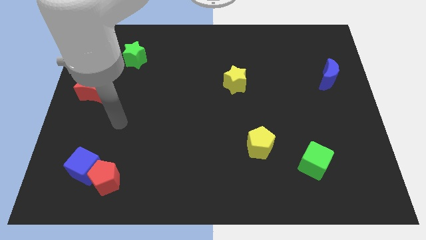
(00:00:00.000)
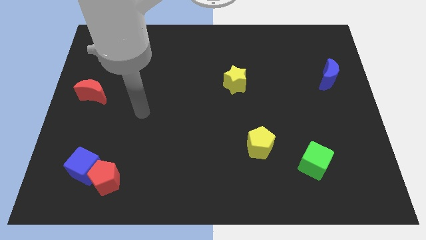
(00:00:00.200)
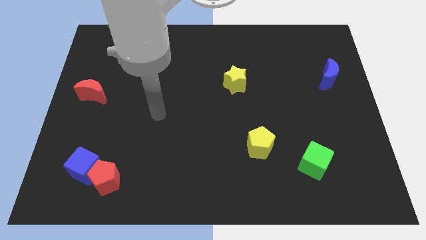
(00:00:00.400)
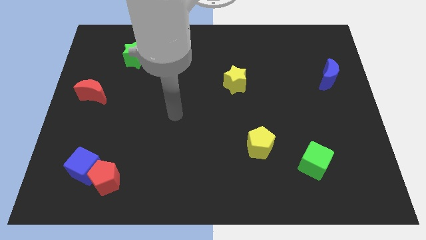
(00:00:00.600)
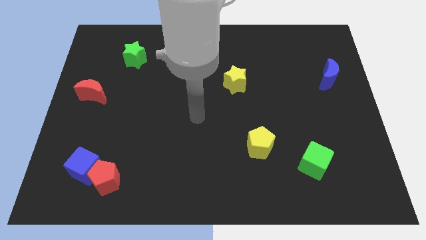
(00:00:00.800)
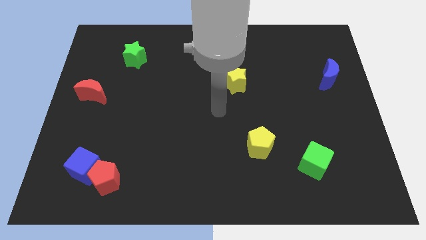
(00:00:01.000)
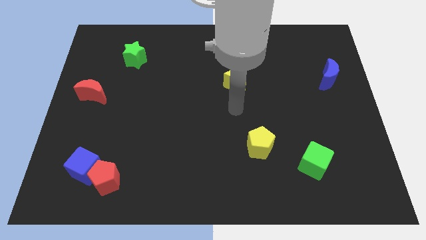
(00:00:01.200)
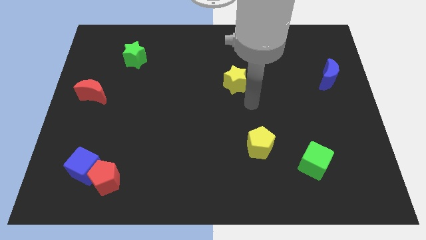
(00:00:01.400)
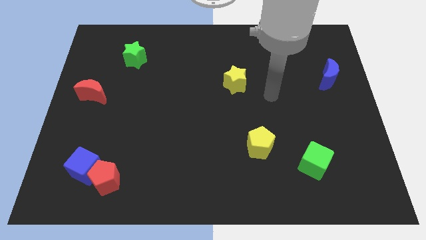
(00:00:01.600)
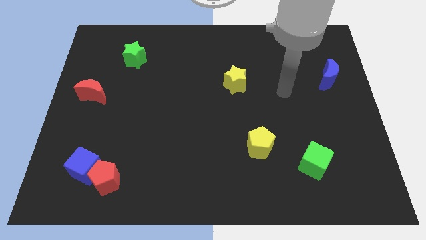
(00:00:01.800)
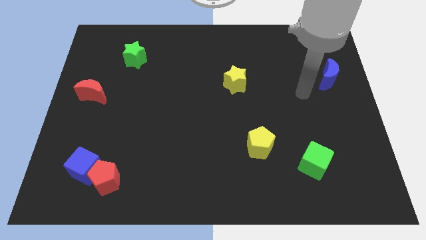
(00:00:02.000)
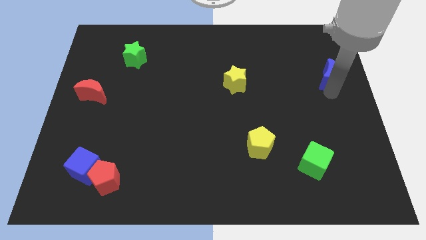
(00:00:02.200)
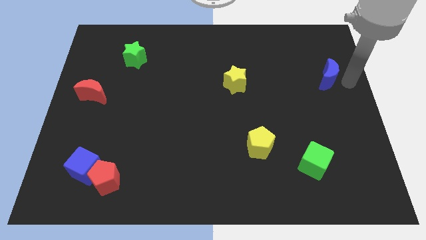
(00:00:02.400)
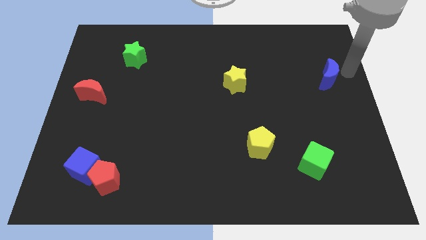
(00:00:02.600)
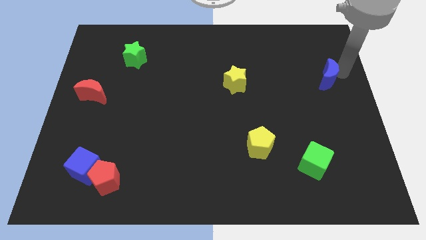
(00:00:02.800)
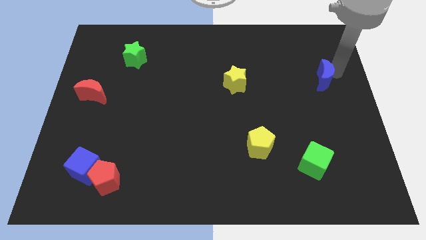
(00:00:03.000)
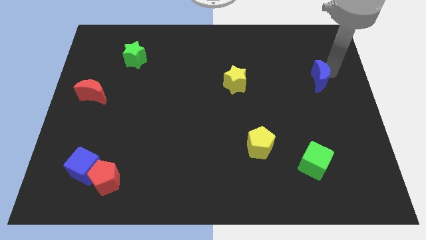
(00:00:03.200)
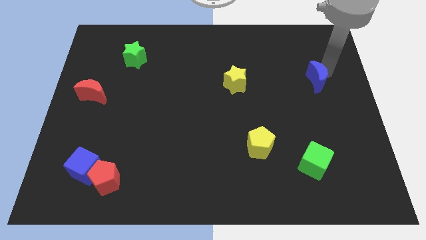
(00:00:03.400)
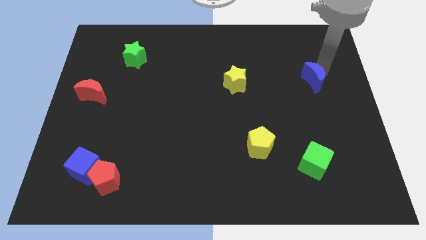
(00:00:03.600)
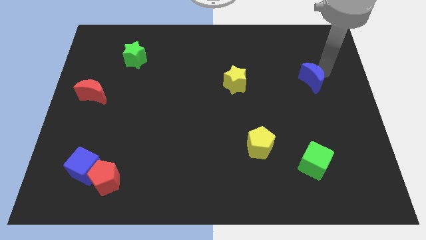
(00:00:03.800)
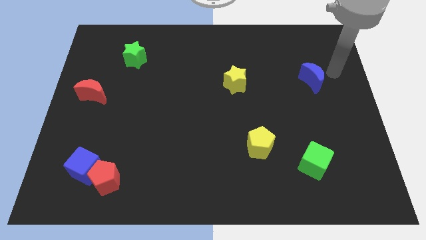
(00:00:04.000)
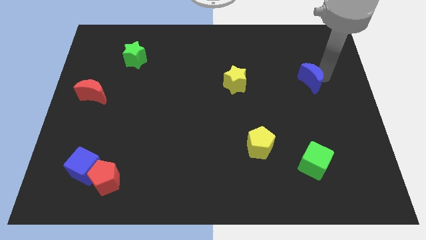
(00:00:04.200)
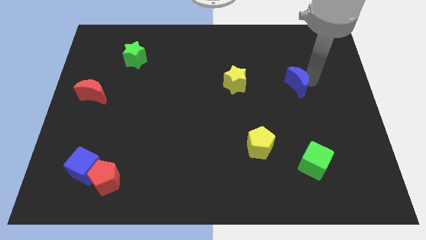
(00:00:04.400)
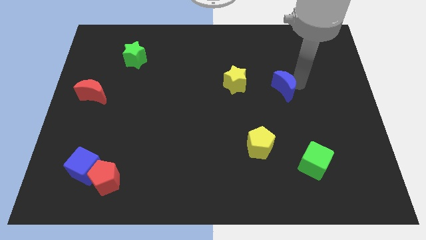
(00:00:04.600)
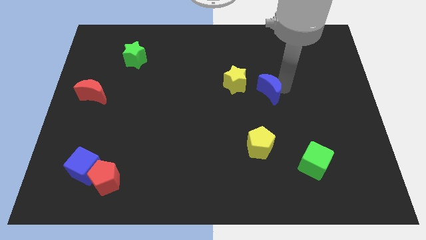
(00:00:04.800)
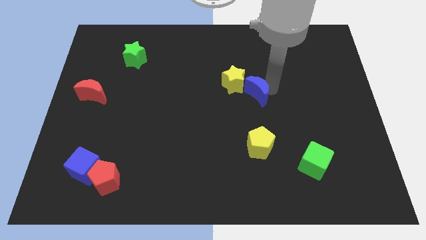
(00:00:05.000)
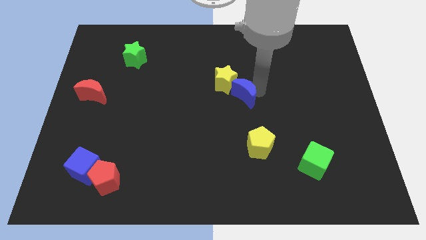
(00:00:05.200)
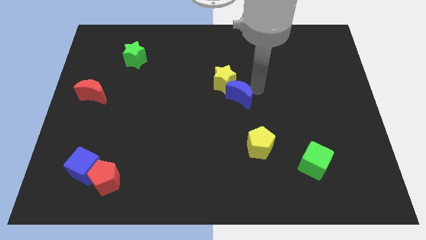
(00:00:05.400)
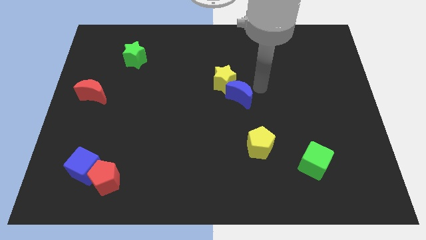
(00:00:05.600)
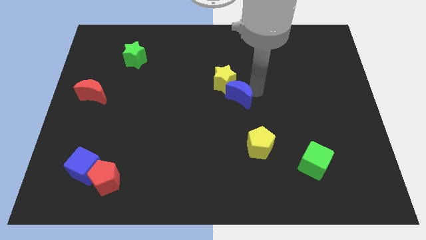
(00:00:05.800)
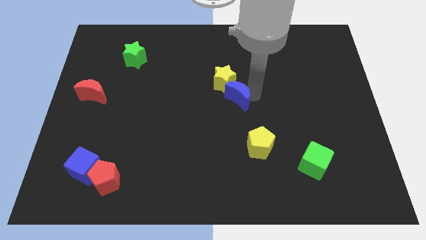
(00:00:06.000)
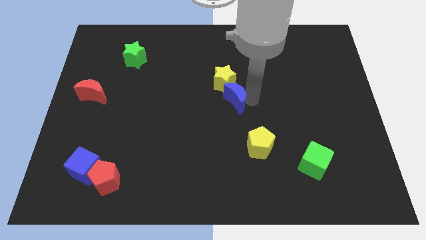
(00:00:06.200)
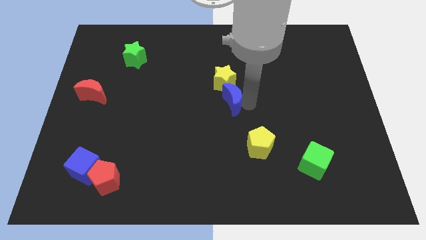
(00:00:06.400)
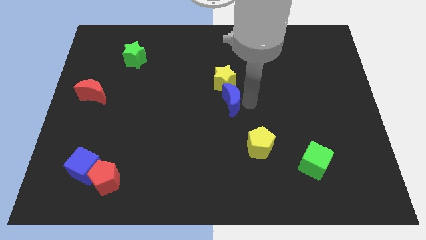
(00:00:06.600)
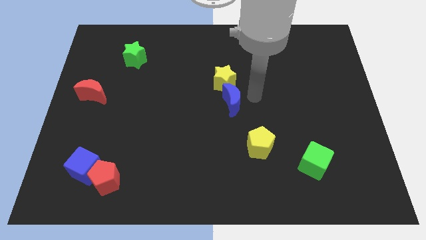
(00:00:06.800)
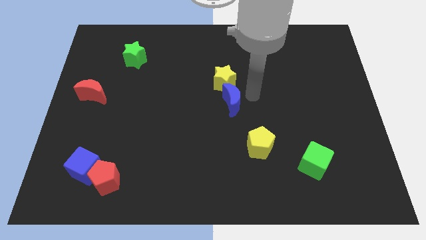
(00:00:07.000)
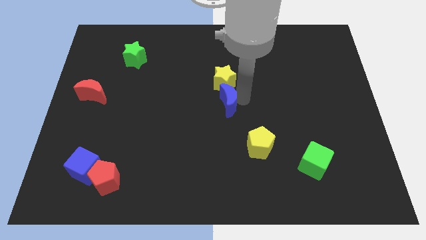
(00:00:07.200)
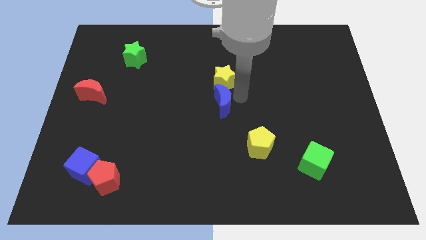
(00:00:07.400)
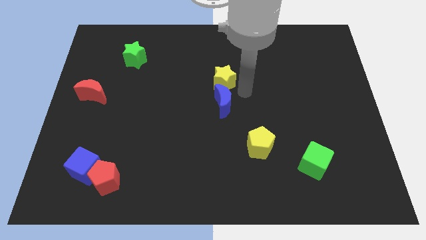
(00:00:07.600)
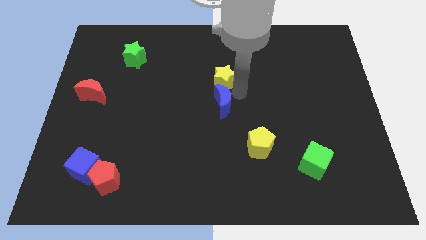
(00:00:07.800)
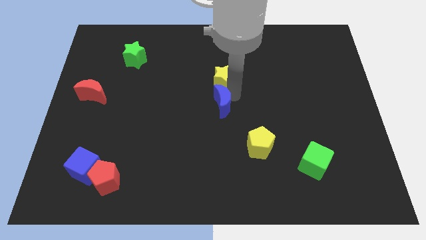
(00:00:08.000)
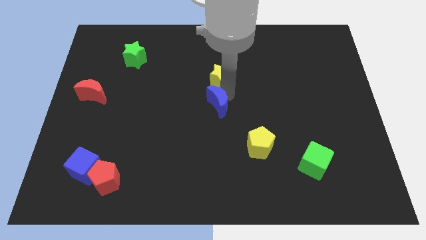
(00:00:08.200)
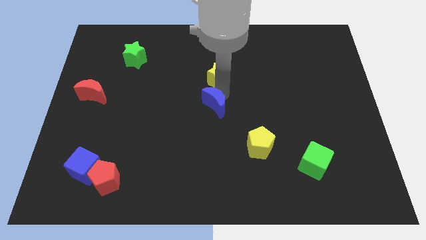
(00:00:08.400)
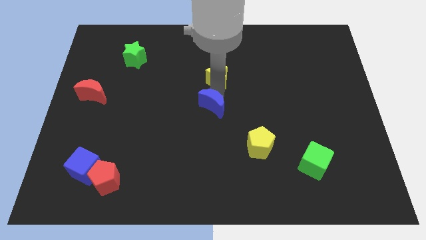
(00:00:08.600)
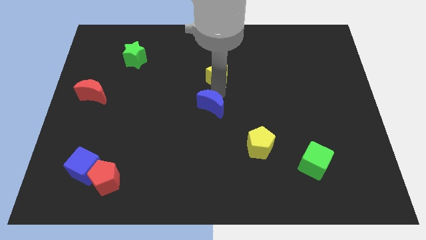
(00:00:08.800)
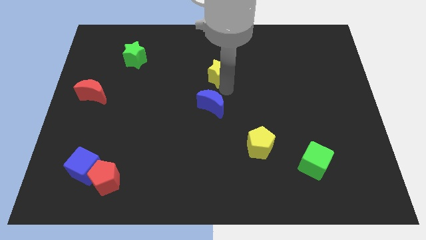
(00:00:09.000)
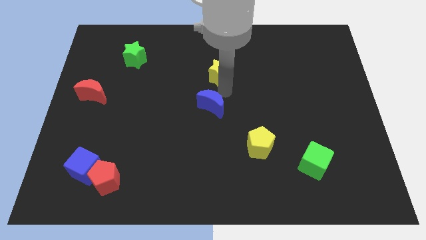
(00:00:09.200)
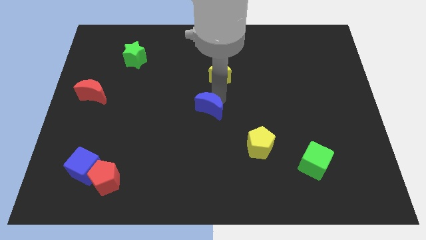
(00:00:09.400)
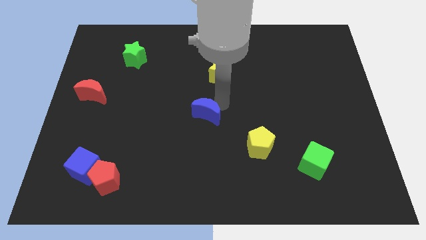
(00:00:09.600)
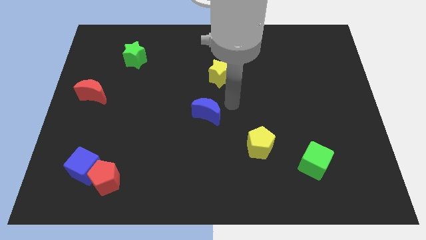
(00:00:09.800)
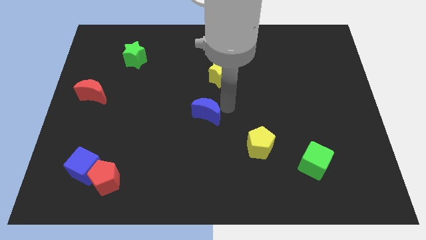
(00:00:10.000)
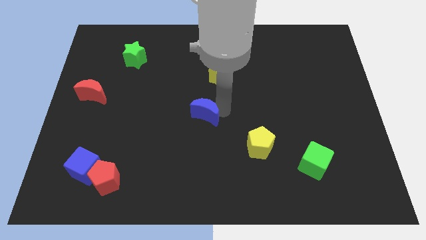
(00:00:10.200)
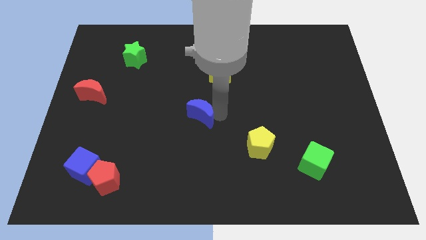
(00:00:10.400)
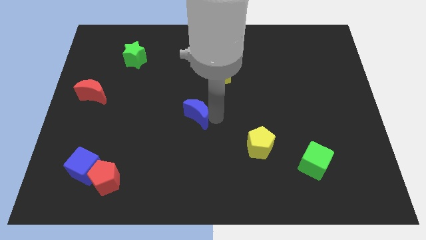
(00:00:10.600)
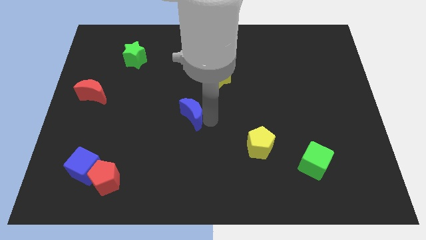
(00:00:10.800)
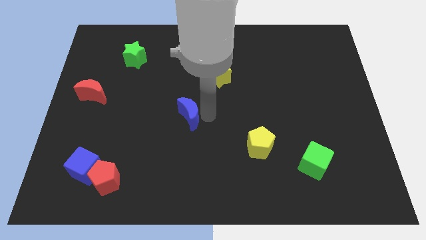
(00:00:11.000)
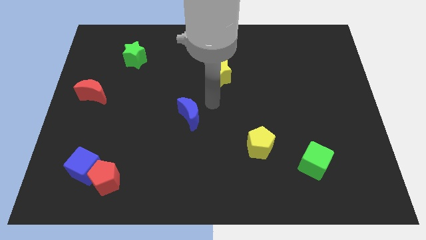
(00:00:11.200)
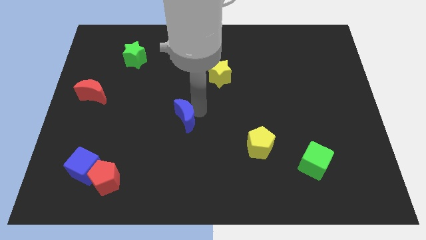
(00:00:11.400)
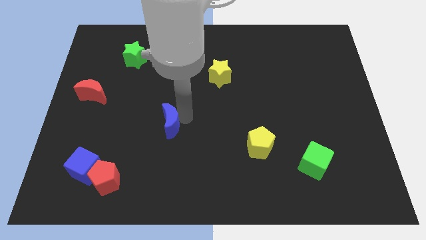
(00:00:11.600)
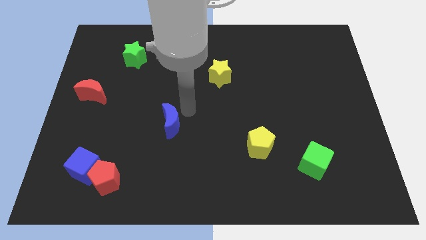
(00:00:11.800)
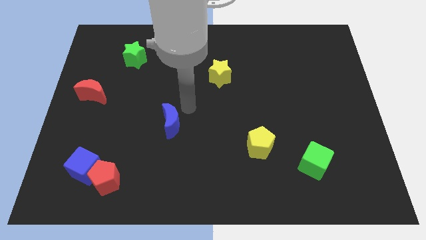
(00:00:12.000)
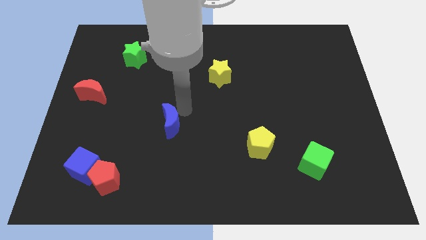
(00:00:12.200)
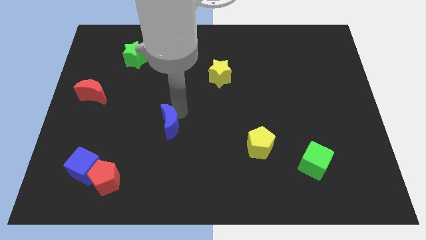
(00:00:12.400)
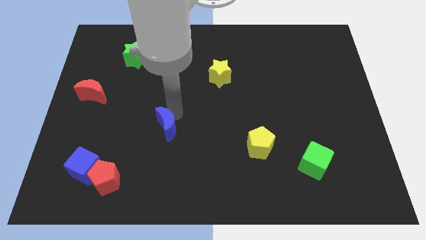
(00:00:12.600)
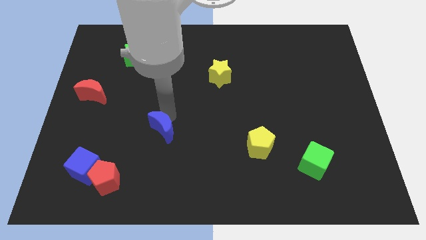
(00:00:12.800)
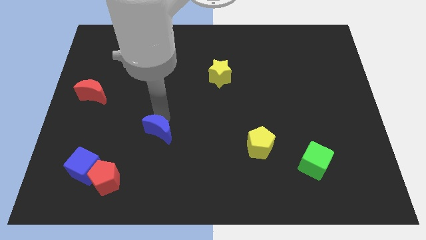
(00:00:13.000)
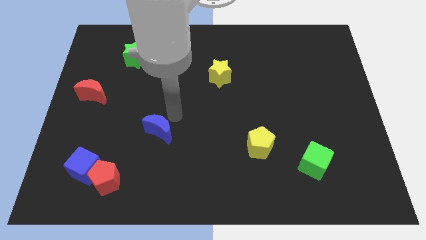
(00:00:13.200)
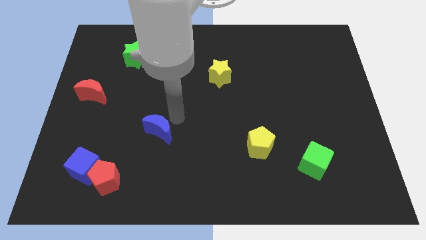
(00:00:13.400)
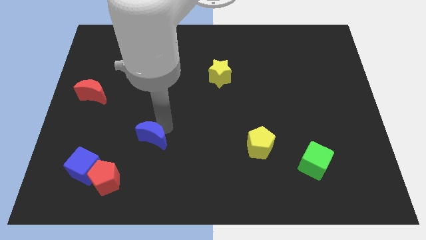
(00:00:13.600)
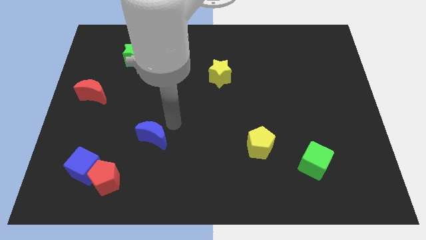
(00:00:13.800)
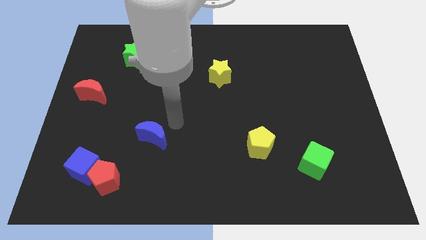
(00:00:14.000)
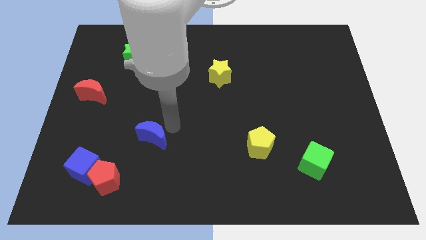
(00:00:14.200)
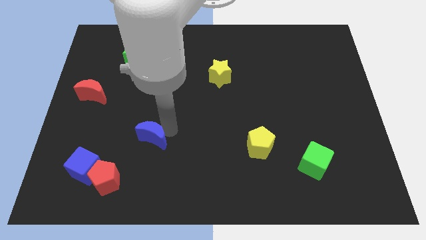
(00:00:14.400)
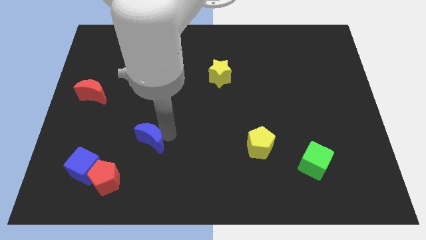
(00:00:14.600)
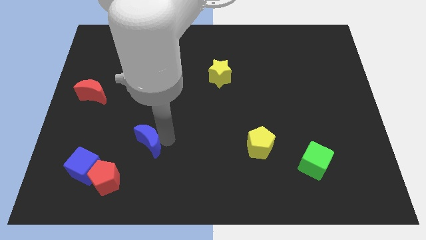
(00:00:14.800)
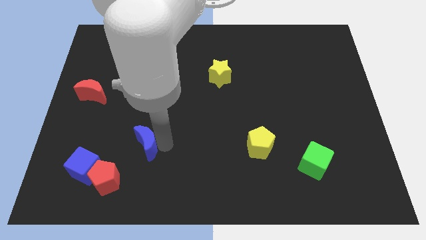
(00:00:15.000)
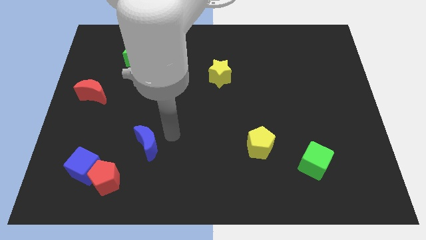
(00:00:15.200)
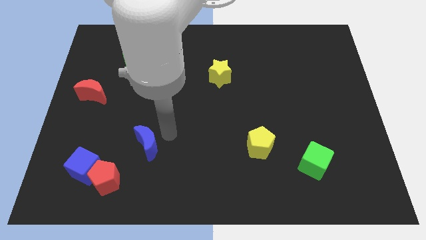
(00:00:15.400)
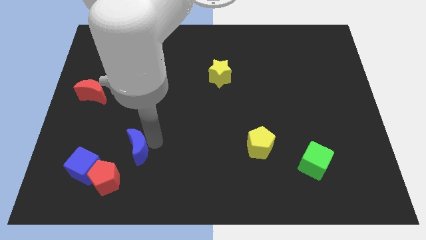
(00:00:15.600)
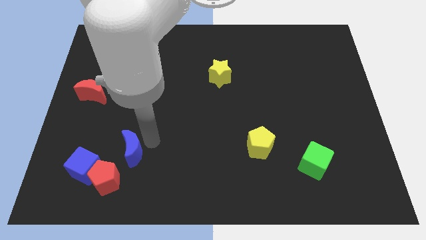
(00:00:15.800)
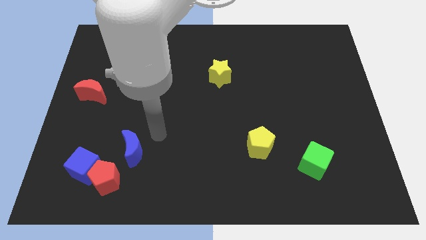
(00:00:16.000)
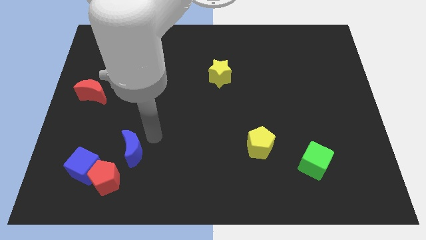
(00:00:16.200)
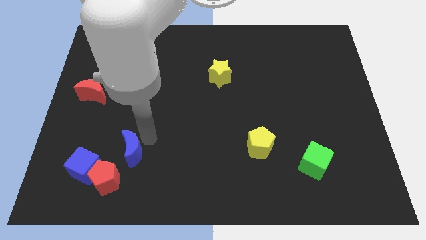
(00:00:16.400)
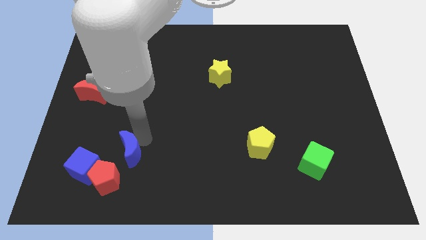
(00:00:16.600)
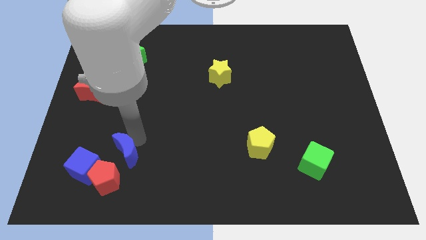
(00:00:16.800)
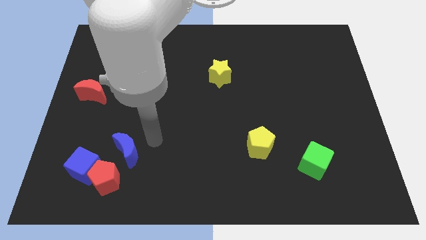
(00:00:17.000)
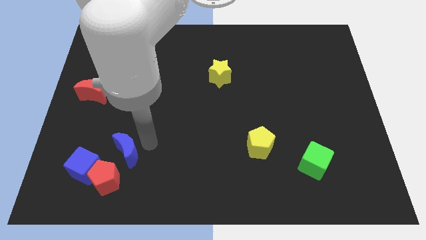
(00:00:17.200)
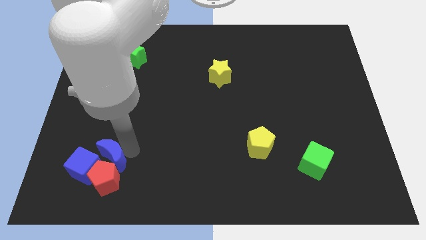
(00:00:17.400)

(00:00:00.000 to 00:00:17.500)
move the blue moon towards the blue cube
